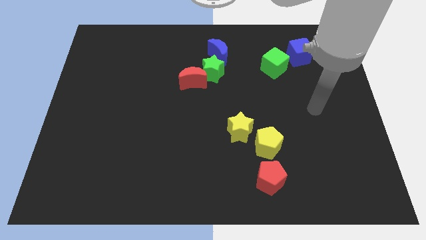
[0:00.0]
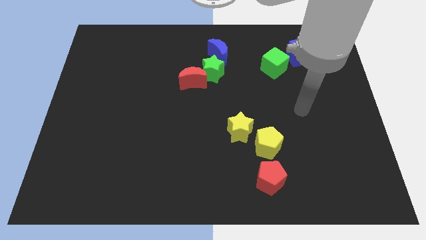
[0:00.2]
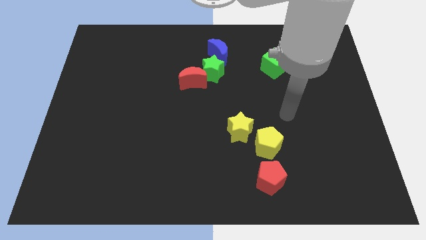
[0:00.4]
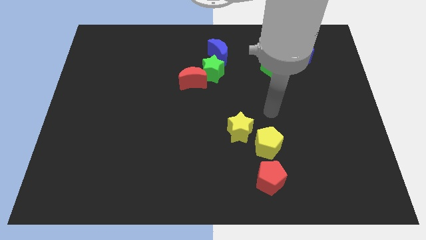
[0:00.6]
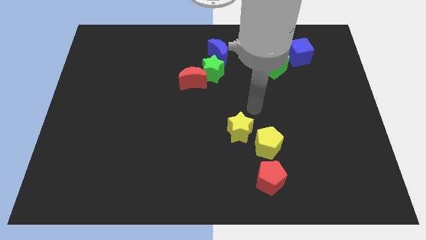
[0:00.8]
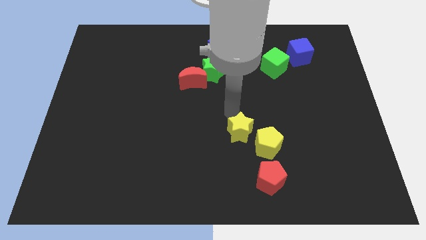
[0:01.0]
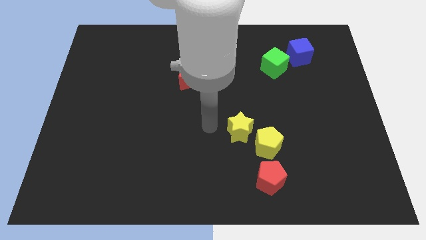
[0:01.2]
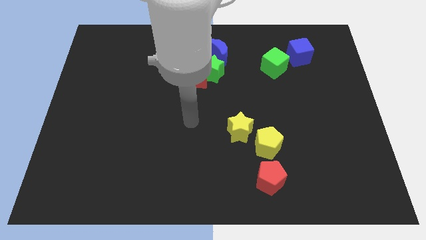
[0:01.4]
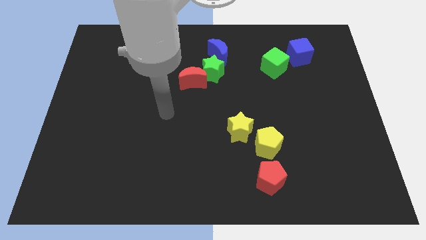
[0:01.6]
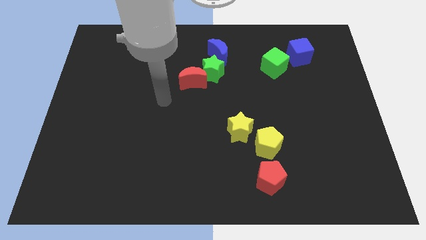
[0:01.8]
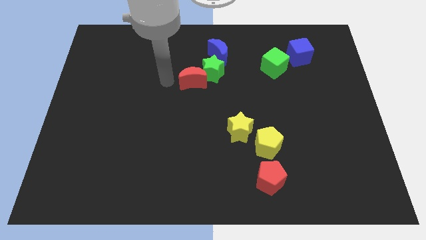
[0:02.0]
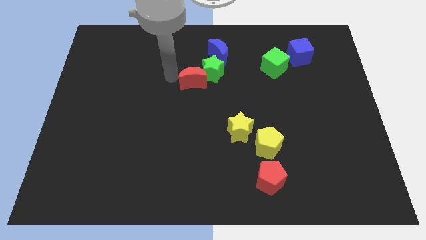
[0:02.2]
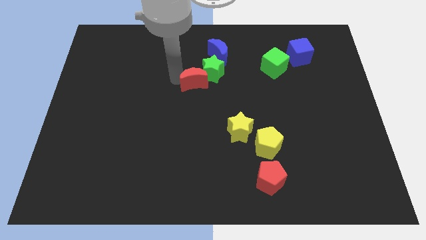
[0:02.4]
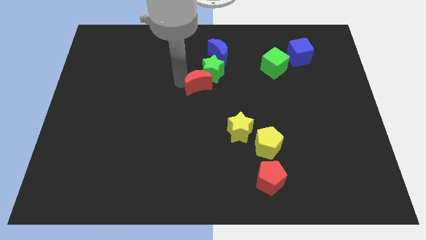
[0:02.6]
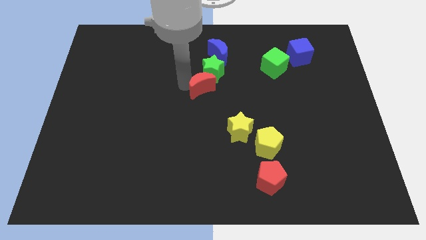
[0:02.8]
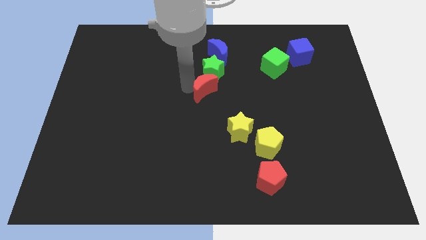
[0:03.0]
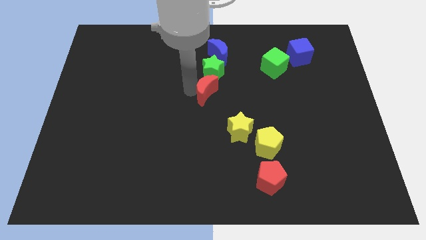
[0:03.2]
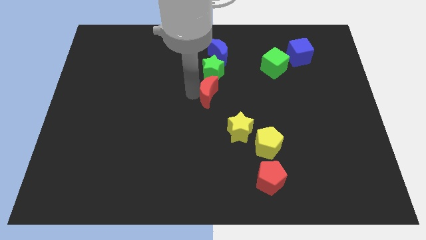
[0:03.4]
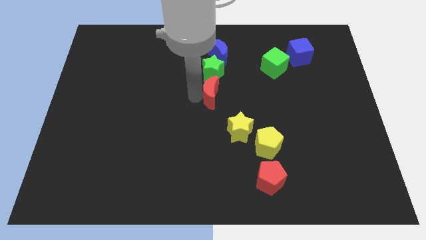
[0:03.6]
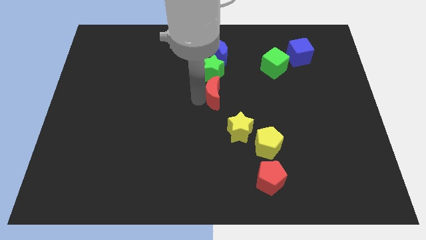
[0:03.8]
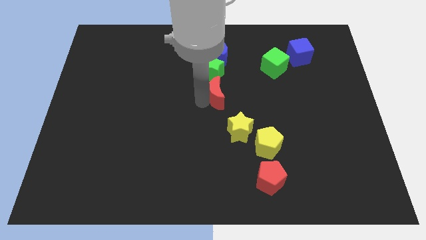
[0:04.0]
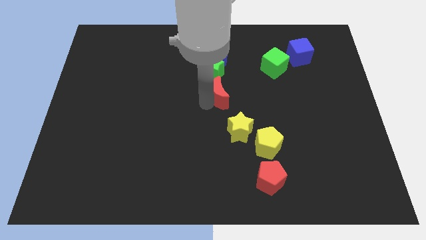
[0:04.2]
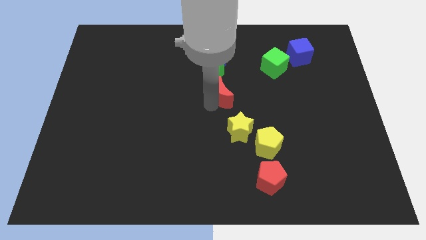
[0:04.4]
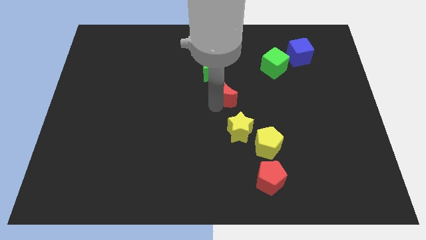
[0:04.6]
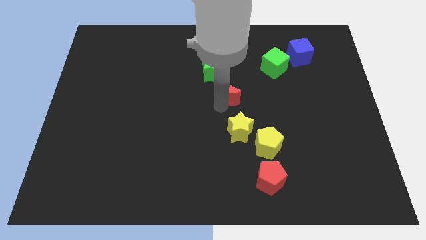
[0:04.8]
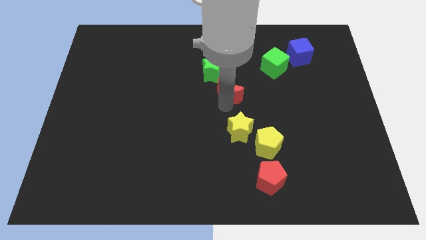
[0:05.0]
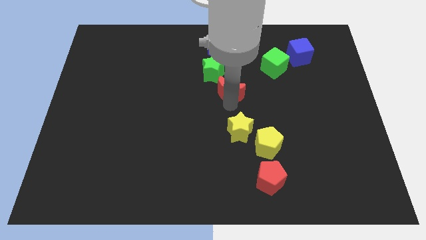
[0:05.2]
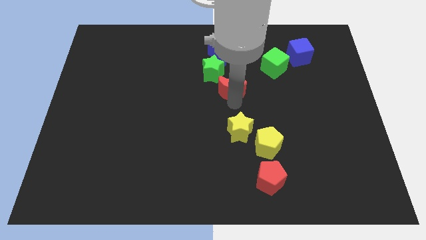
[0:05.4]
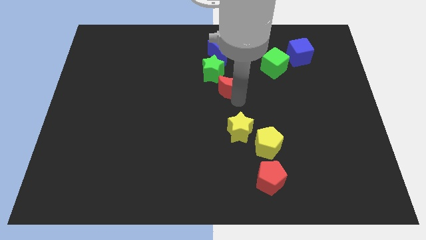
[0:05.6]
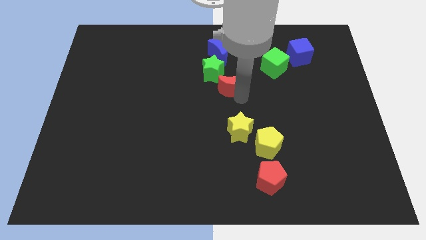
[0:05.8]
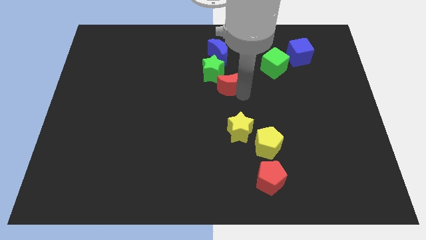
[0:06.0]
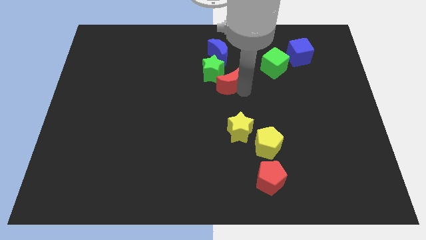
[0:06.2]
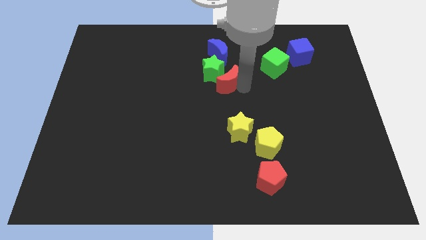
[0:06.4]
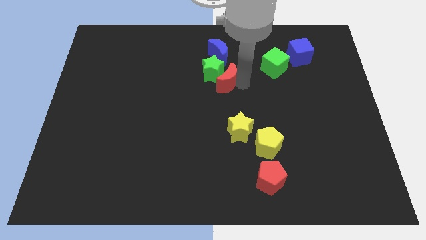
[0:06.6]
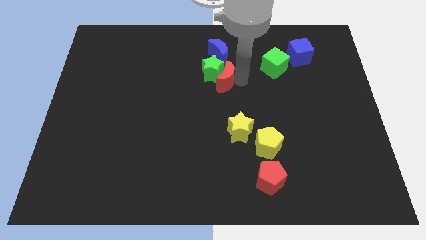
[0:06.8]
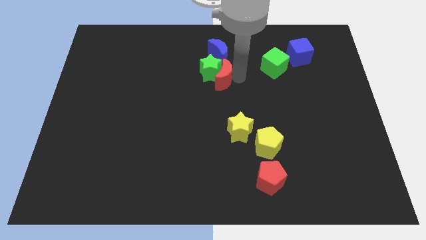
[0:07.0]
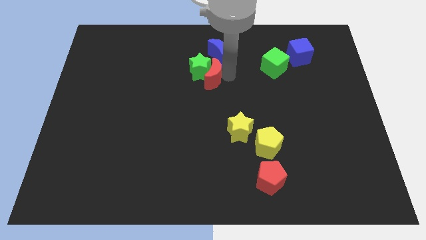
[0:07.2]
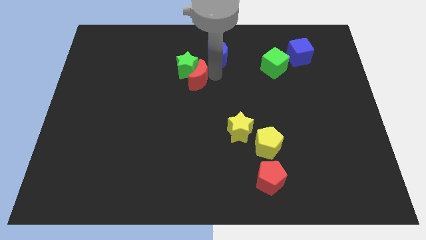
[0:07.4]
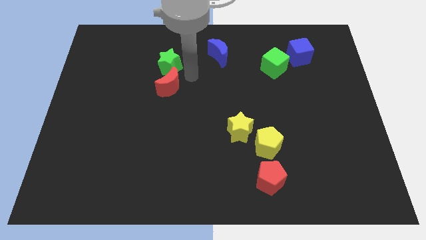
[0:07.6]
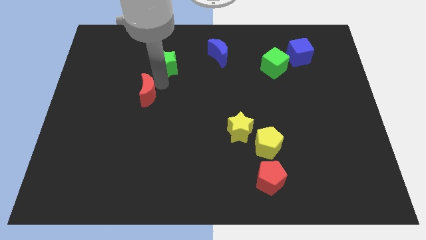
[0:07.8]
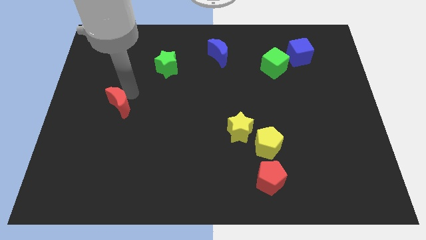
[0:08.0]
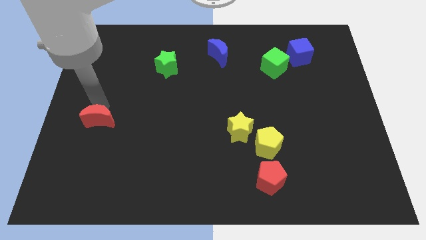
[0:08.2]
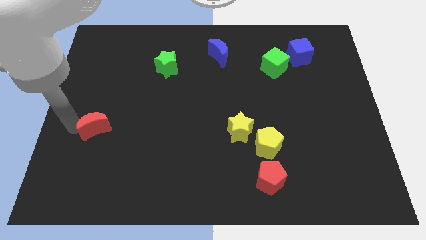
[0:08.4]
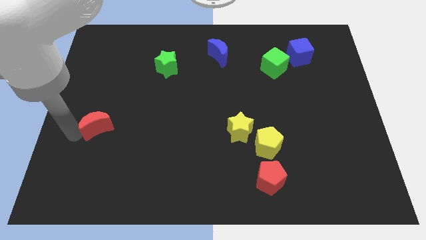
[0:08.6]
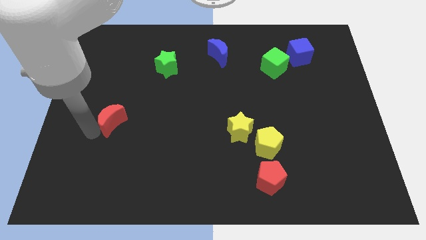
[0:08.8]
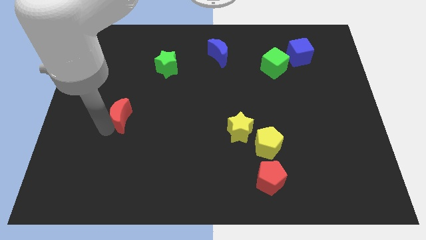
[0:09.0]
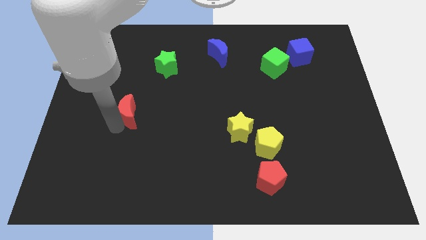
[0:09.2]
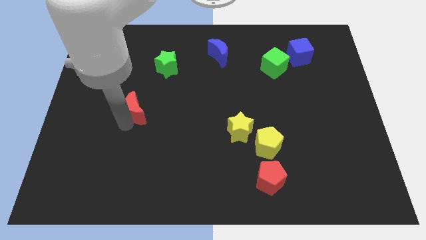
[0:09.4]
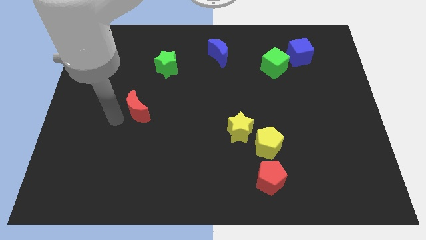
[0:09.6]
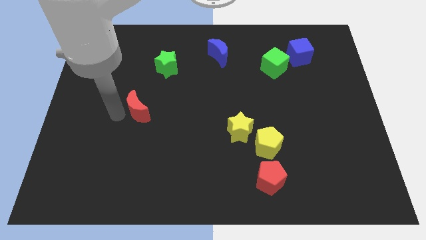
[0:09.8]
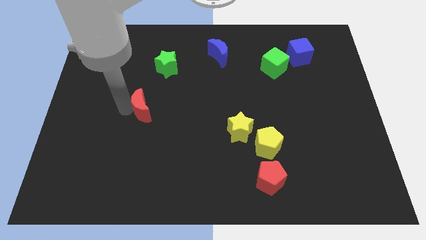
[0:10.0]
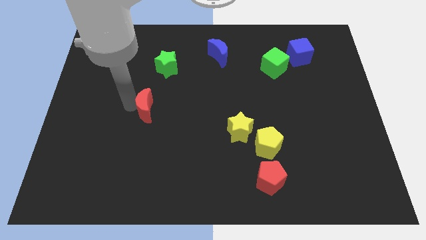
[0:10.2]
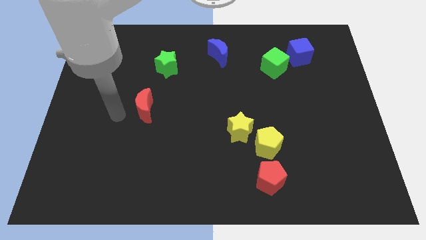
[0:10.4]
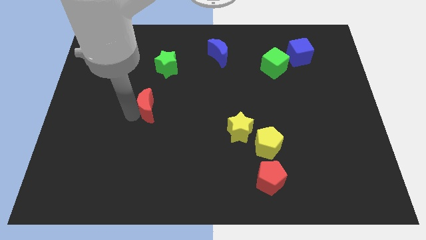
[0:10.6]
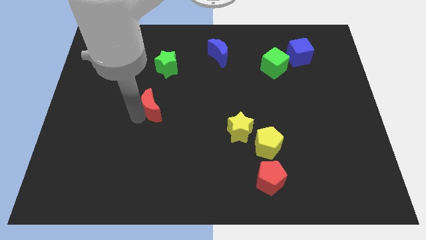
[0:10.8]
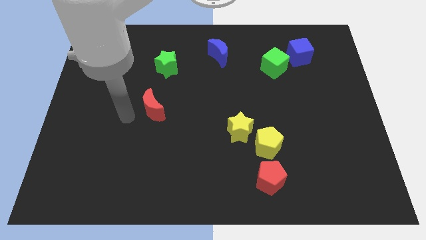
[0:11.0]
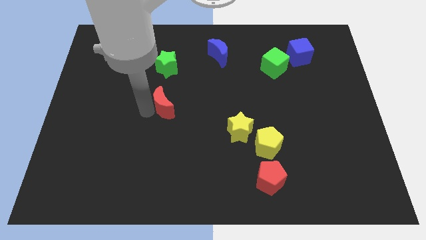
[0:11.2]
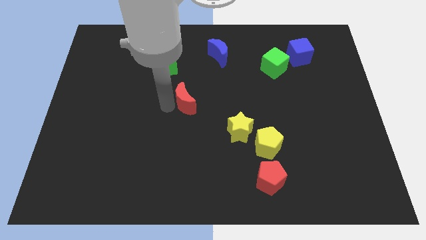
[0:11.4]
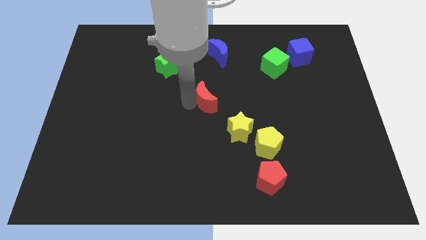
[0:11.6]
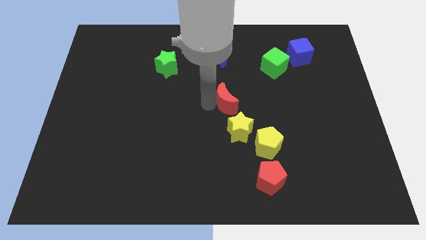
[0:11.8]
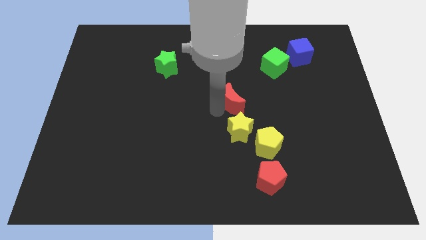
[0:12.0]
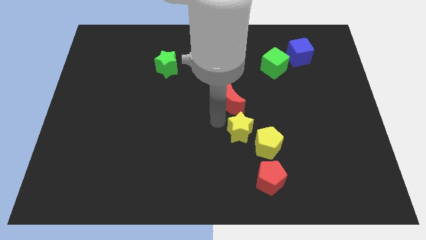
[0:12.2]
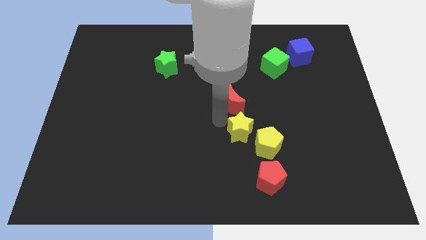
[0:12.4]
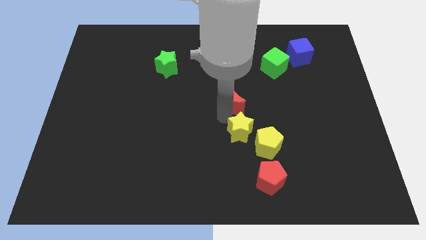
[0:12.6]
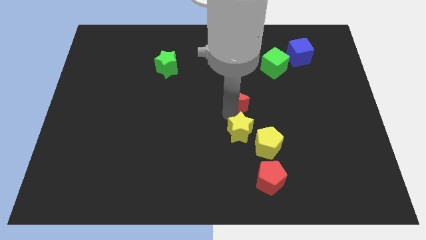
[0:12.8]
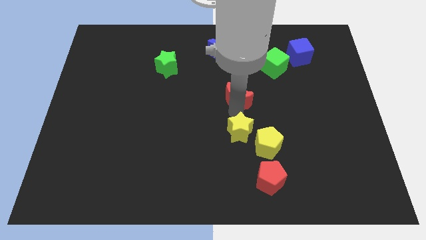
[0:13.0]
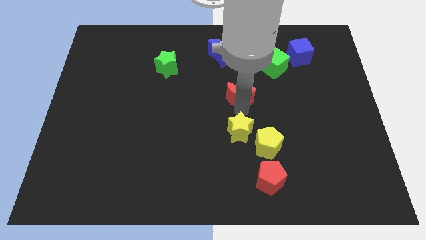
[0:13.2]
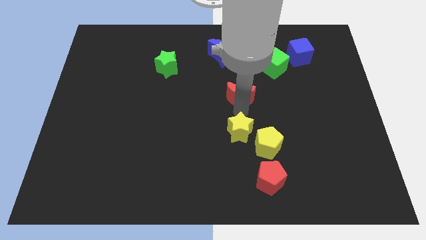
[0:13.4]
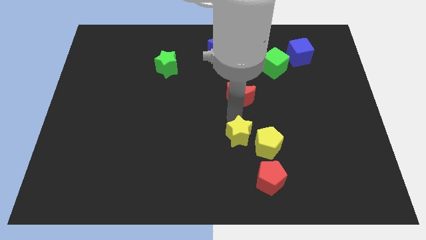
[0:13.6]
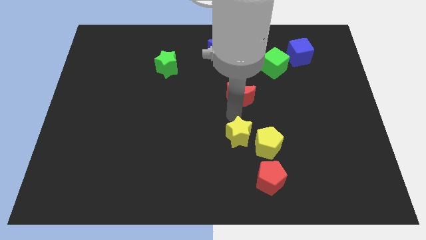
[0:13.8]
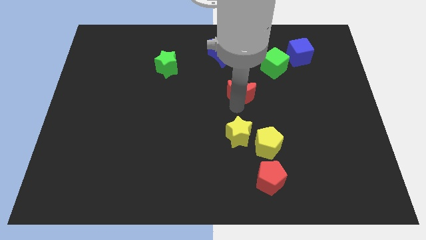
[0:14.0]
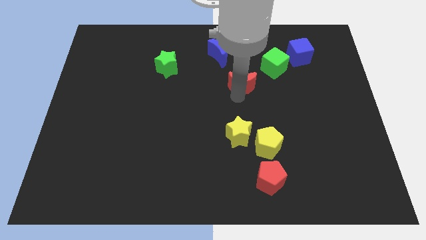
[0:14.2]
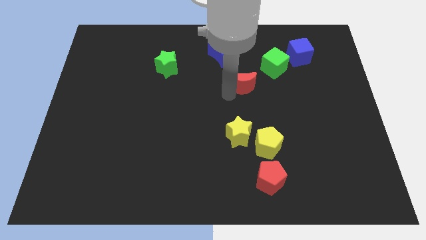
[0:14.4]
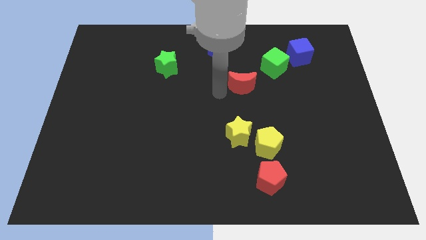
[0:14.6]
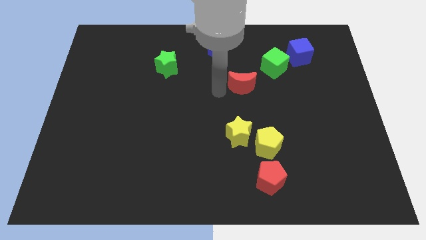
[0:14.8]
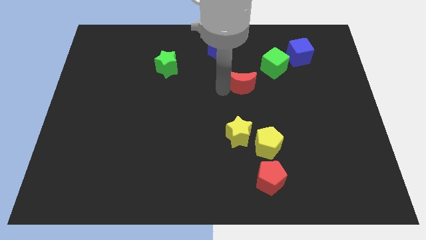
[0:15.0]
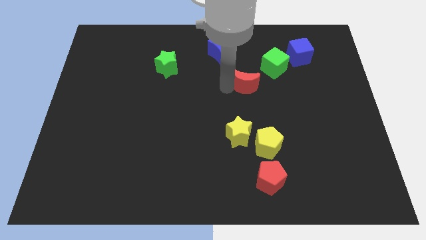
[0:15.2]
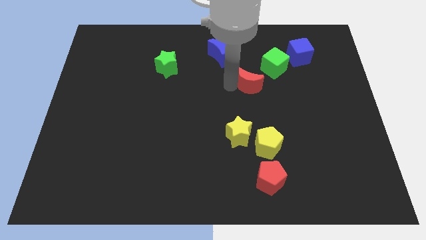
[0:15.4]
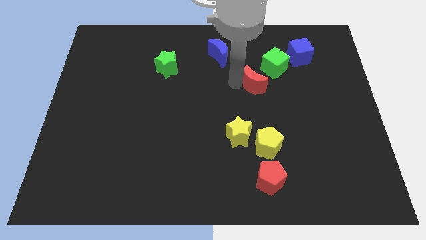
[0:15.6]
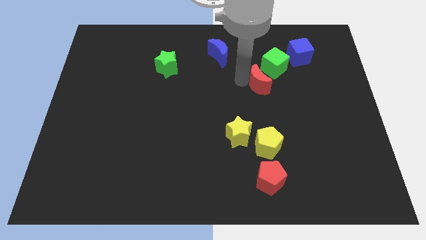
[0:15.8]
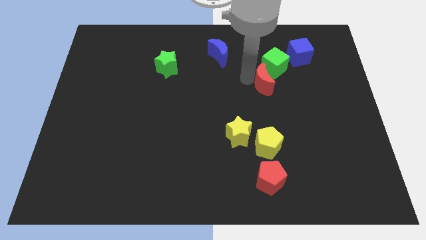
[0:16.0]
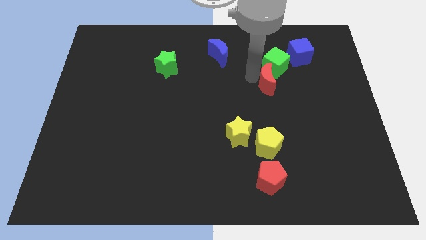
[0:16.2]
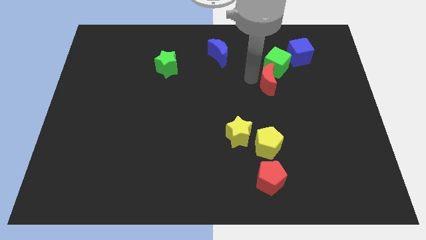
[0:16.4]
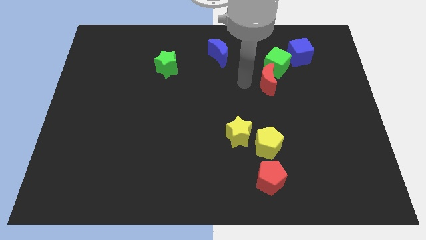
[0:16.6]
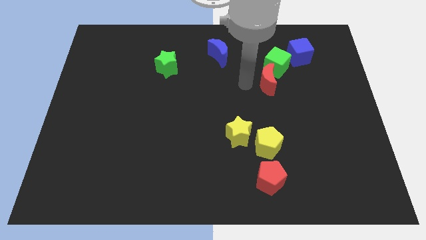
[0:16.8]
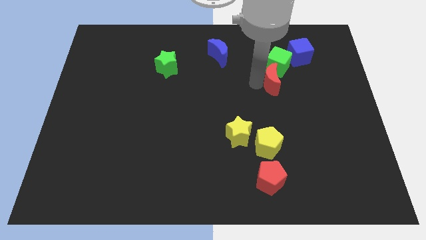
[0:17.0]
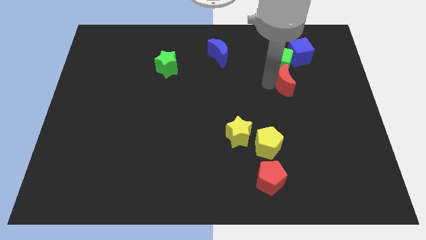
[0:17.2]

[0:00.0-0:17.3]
put the red moon diagonally down and to the right of the green cube
